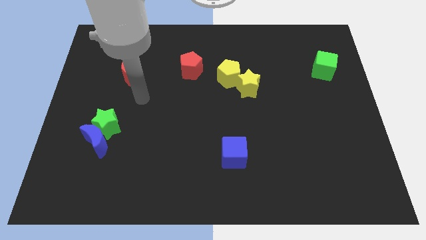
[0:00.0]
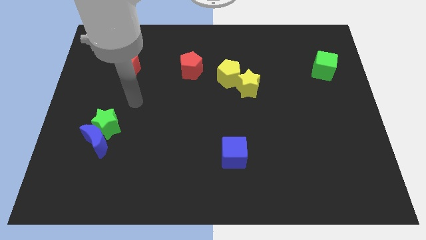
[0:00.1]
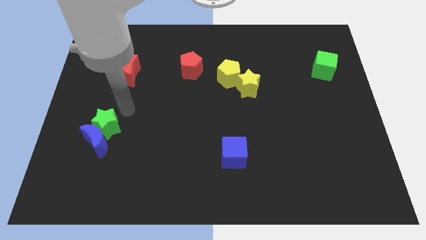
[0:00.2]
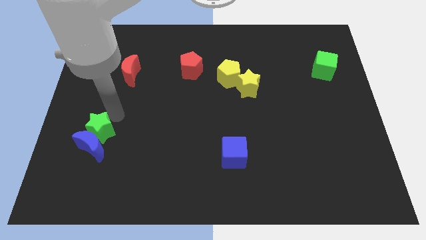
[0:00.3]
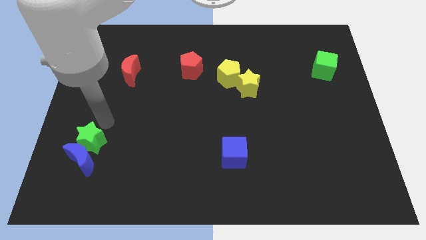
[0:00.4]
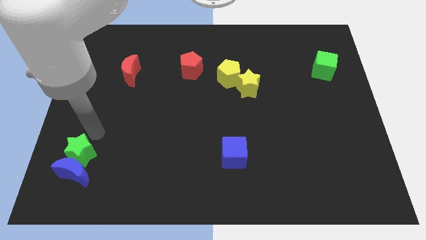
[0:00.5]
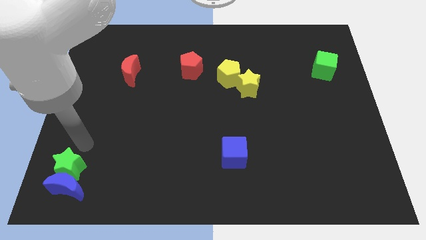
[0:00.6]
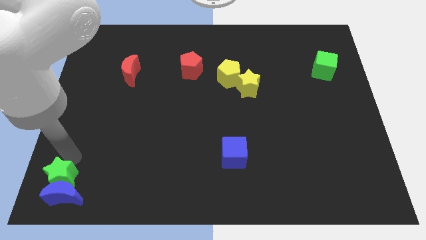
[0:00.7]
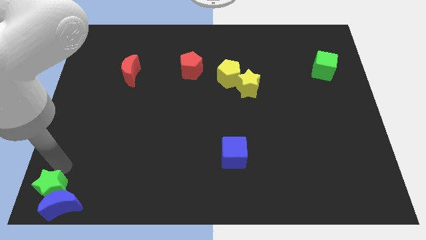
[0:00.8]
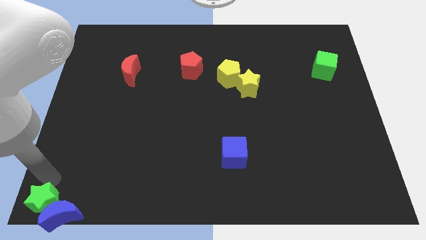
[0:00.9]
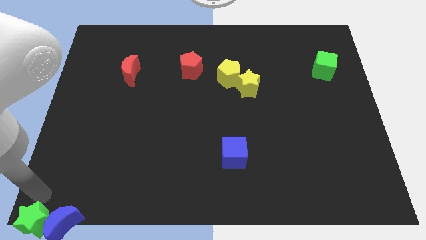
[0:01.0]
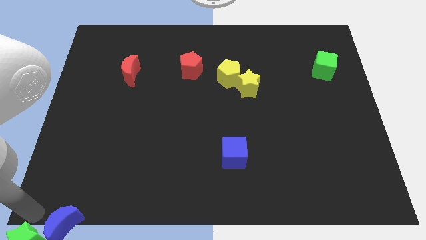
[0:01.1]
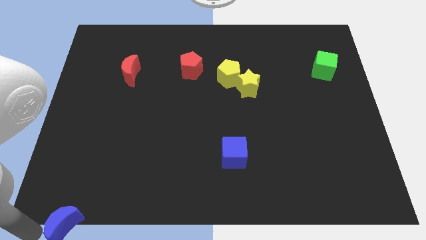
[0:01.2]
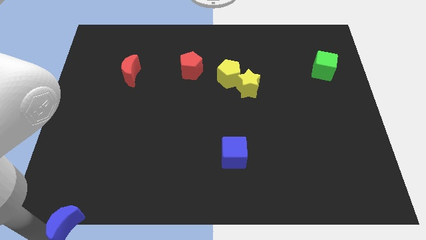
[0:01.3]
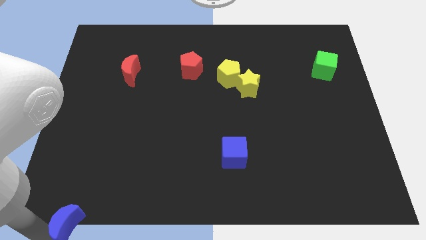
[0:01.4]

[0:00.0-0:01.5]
pull the blue moon apart from the green star

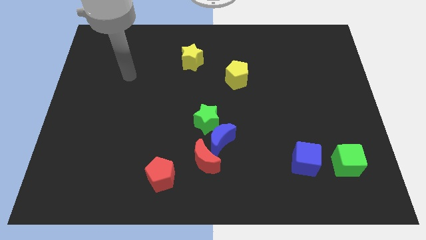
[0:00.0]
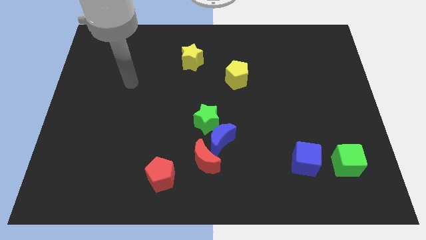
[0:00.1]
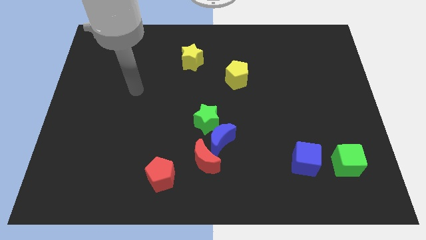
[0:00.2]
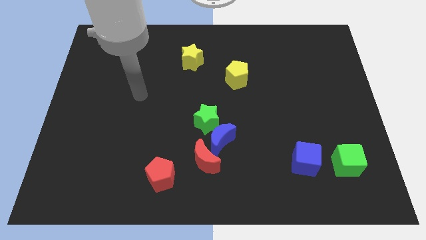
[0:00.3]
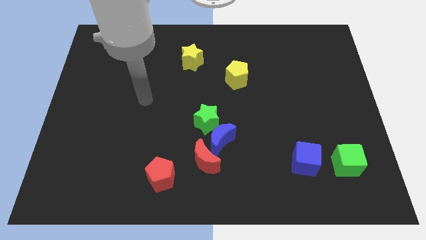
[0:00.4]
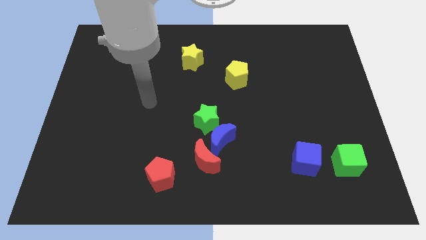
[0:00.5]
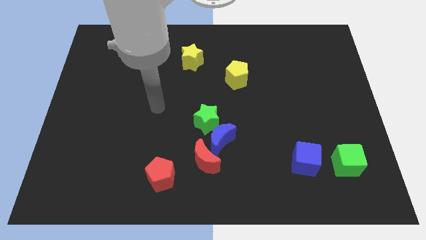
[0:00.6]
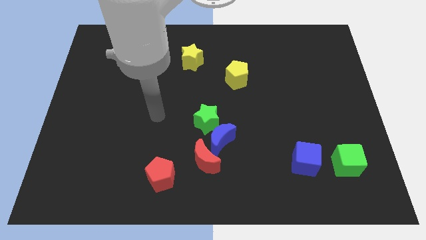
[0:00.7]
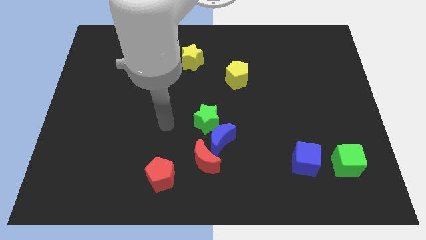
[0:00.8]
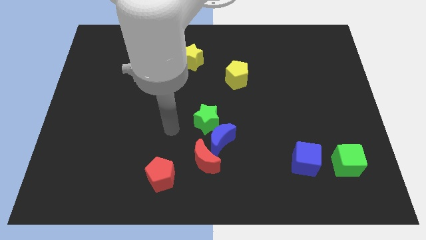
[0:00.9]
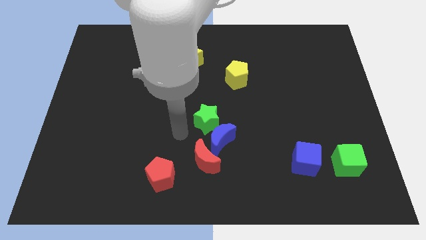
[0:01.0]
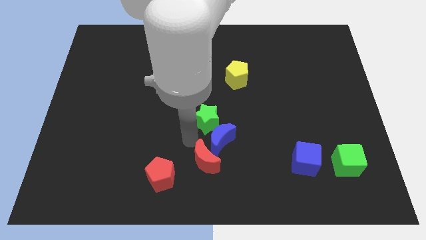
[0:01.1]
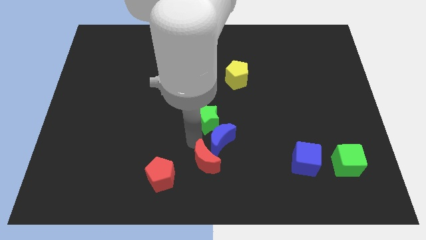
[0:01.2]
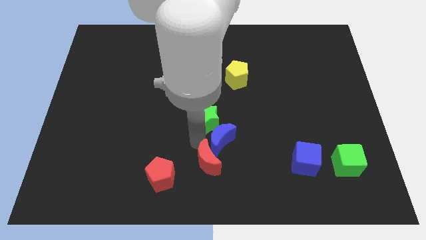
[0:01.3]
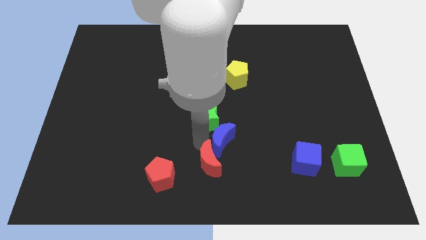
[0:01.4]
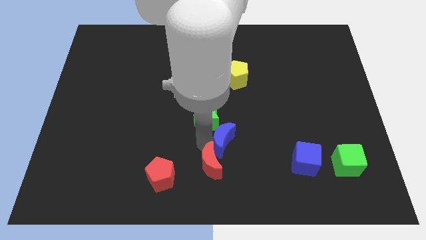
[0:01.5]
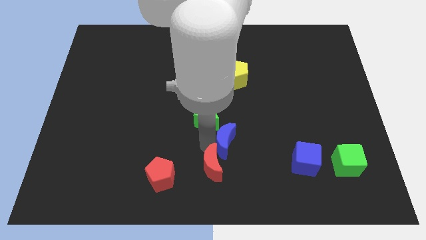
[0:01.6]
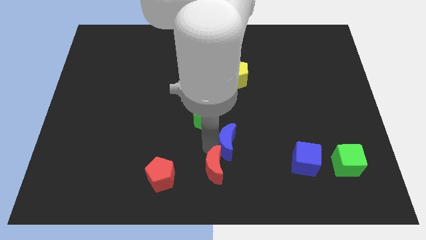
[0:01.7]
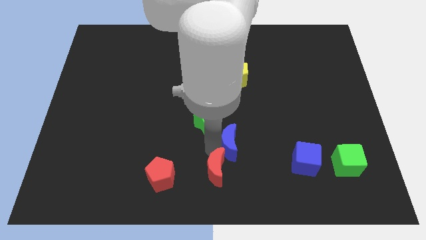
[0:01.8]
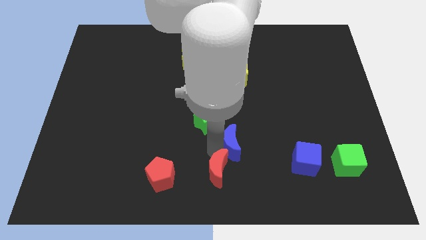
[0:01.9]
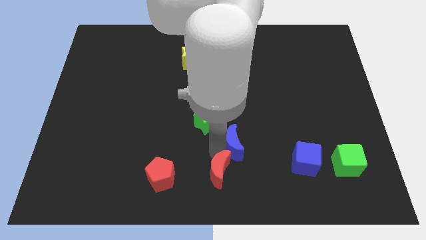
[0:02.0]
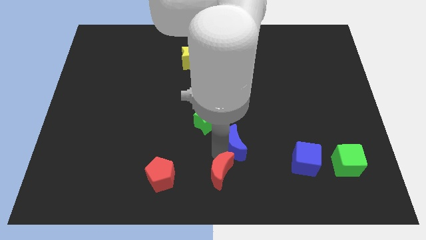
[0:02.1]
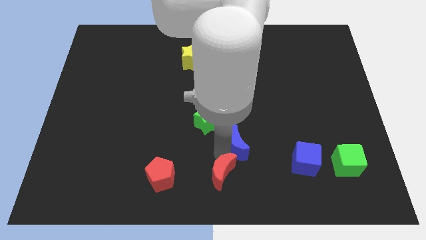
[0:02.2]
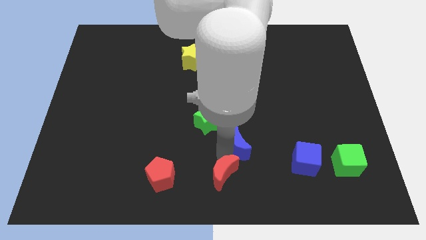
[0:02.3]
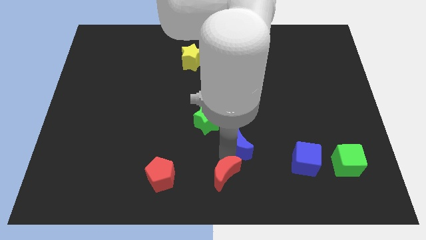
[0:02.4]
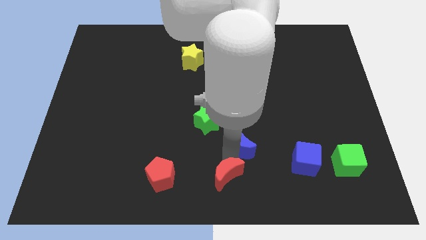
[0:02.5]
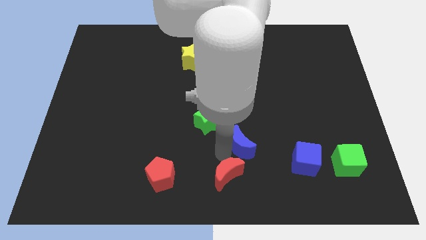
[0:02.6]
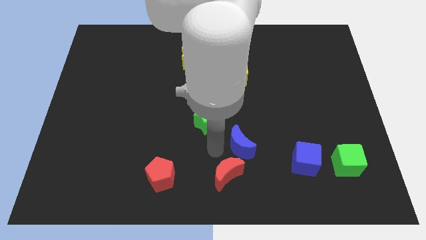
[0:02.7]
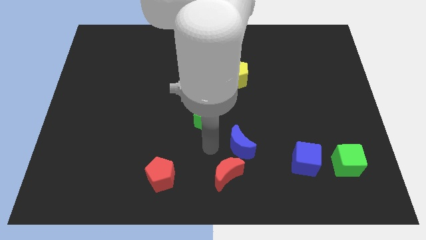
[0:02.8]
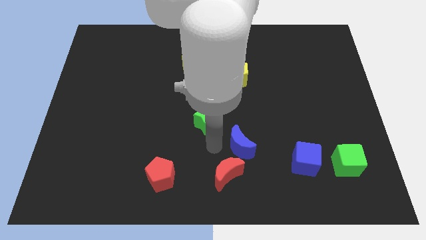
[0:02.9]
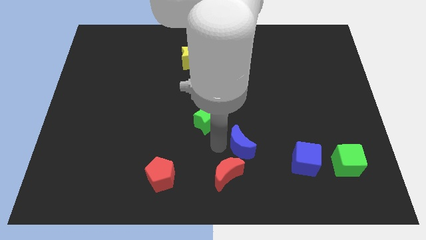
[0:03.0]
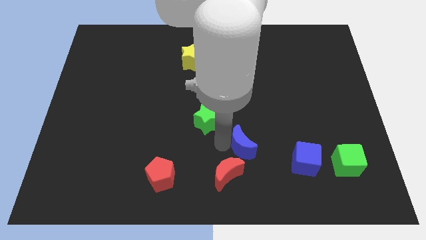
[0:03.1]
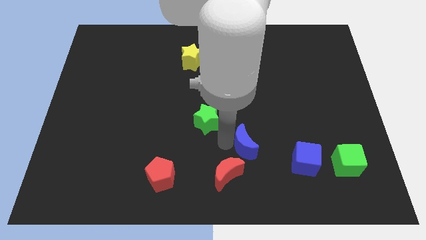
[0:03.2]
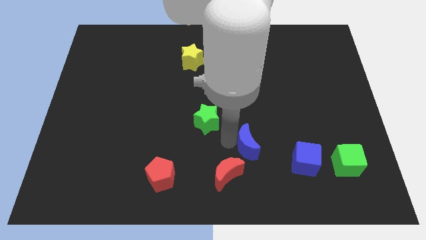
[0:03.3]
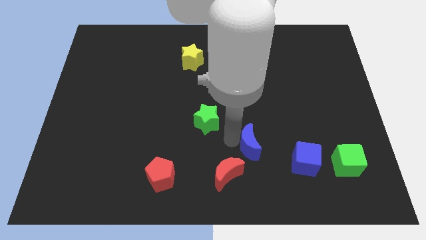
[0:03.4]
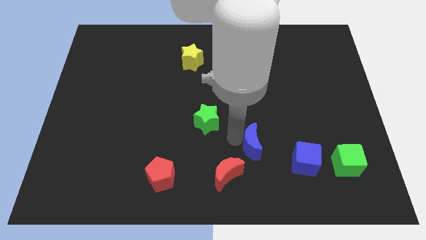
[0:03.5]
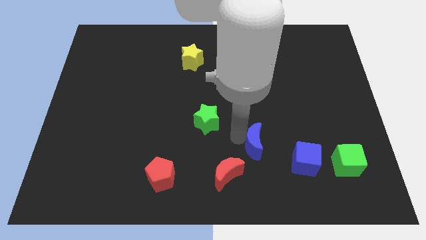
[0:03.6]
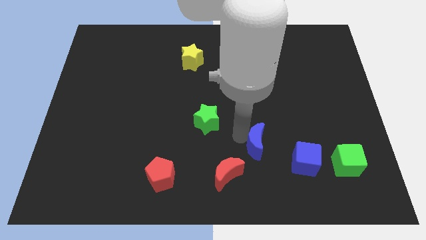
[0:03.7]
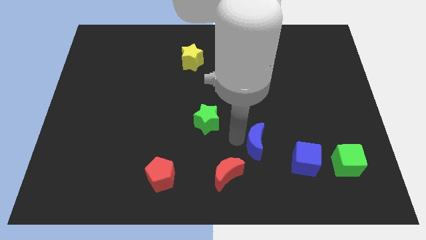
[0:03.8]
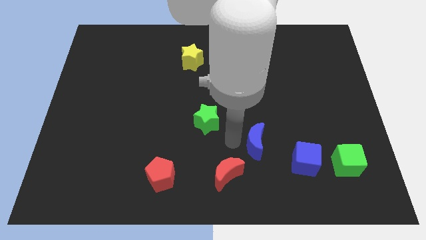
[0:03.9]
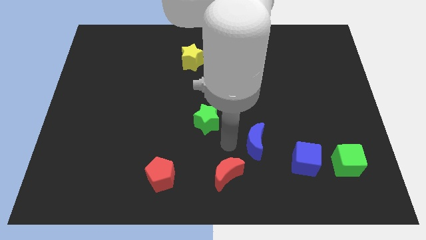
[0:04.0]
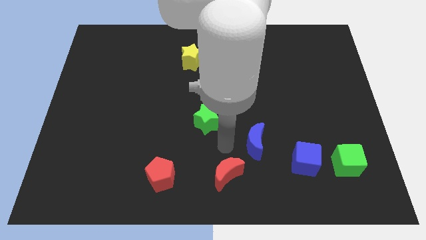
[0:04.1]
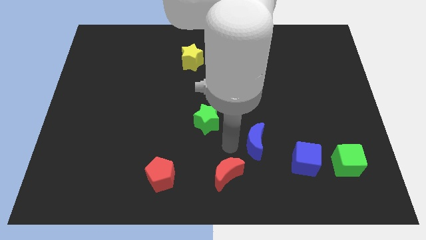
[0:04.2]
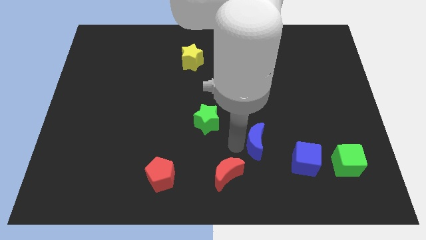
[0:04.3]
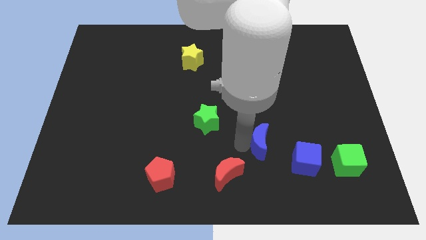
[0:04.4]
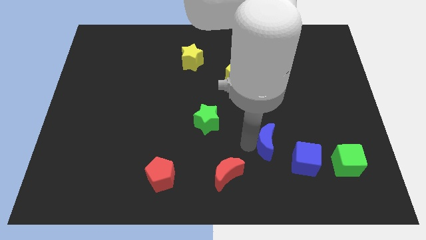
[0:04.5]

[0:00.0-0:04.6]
separate the blue moon from the green star and red moon

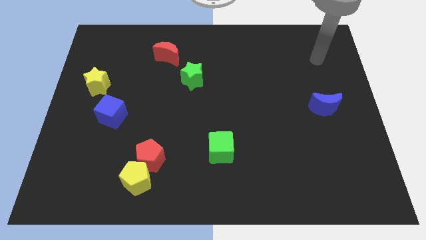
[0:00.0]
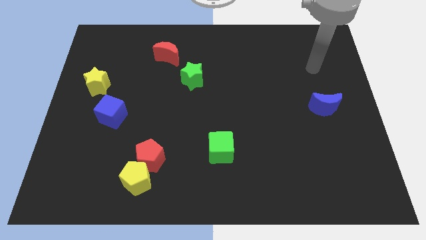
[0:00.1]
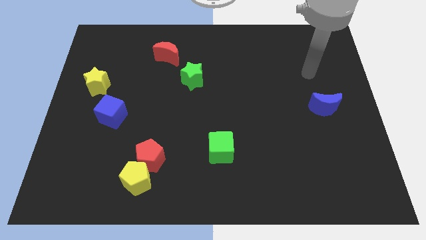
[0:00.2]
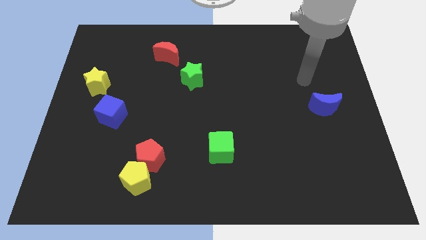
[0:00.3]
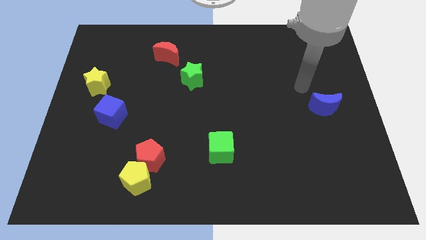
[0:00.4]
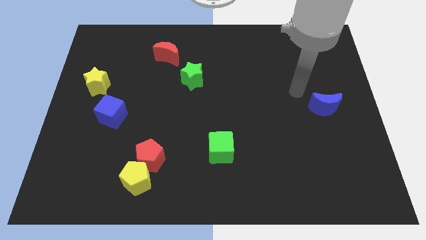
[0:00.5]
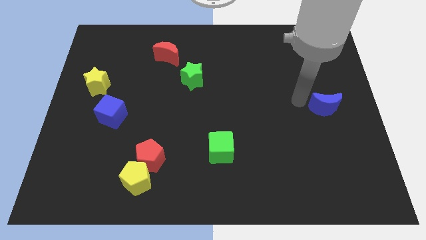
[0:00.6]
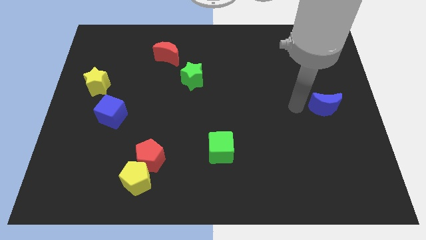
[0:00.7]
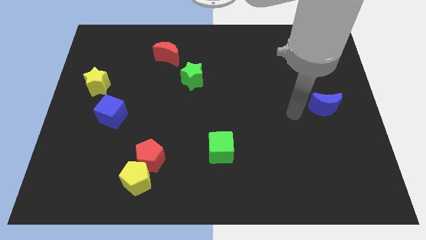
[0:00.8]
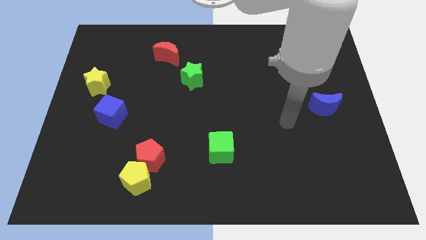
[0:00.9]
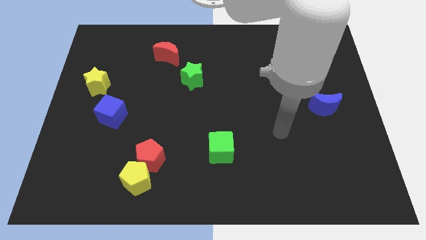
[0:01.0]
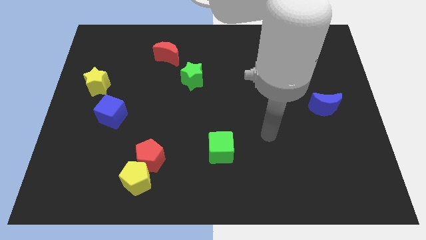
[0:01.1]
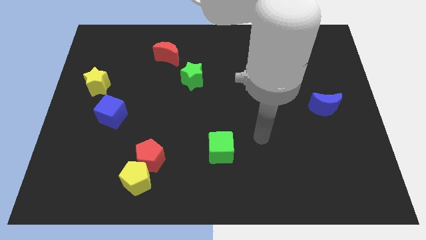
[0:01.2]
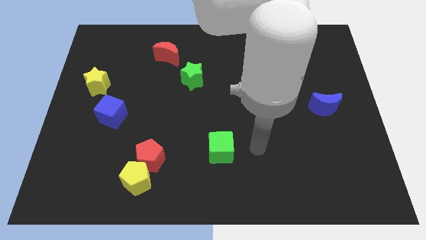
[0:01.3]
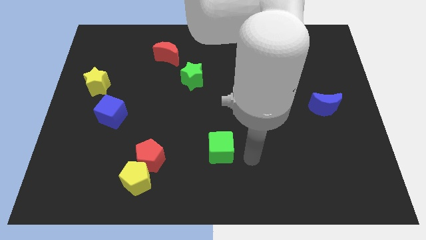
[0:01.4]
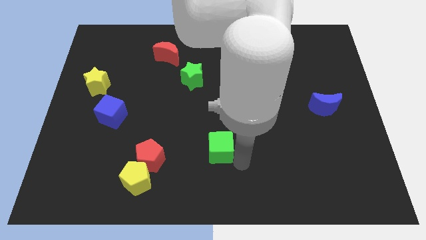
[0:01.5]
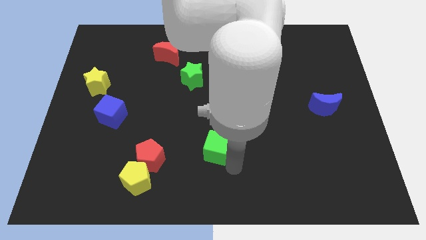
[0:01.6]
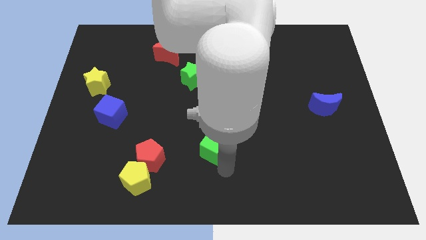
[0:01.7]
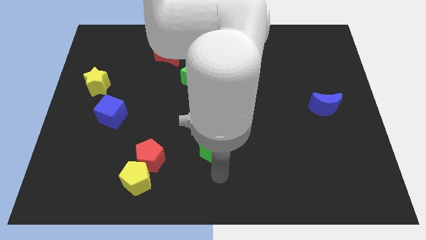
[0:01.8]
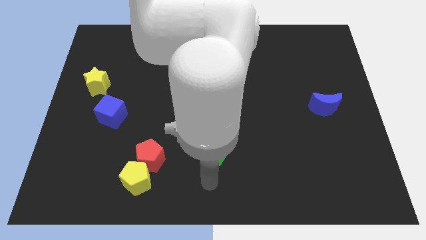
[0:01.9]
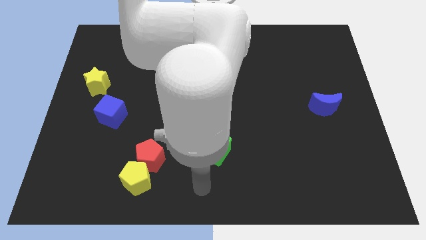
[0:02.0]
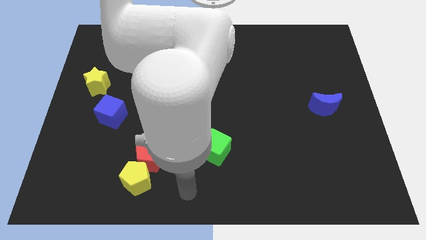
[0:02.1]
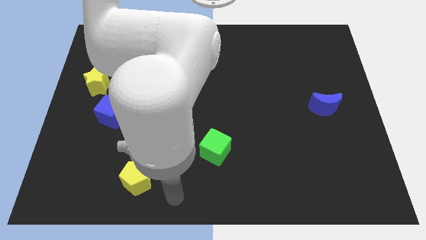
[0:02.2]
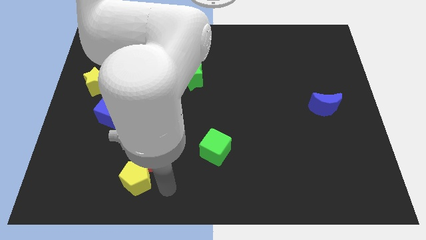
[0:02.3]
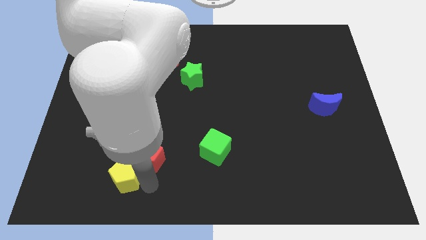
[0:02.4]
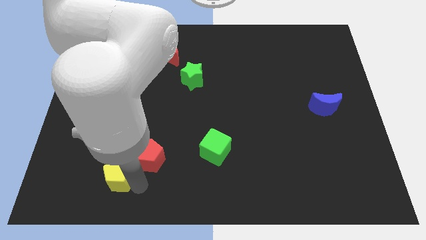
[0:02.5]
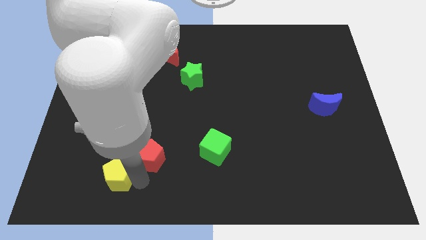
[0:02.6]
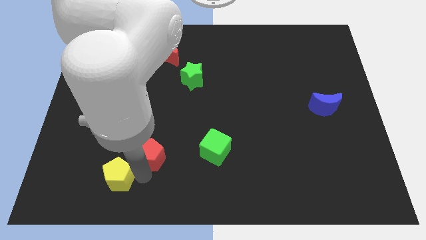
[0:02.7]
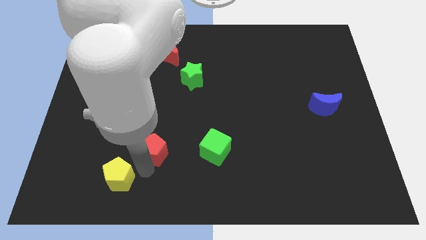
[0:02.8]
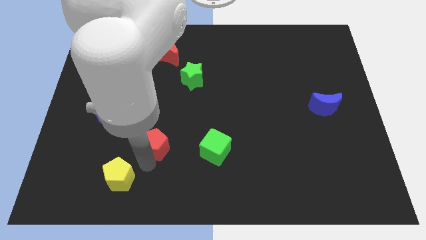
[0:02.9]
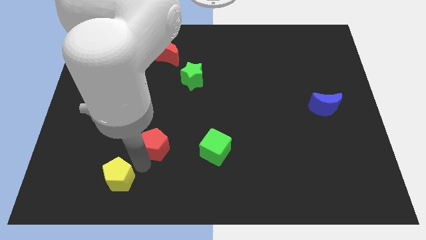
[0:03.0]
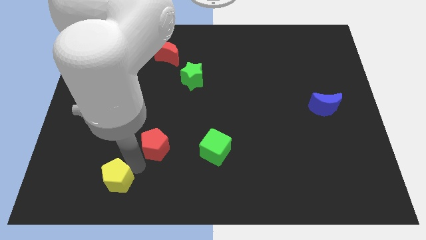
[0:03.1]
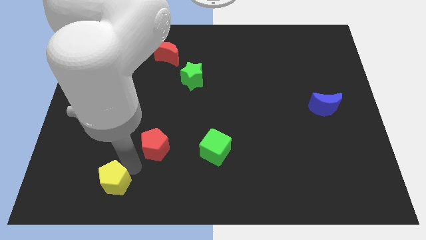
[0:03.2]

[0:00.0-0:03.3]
move the red pentagon away from the yellow pentagon

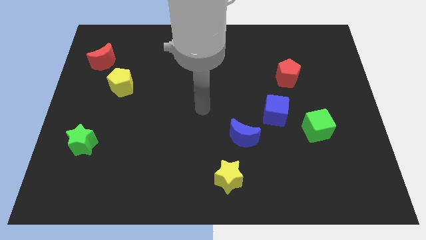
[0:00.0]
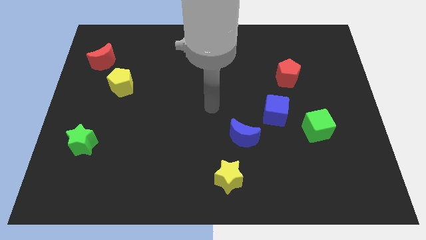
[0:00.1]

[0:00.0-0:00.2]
pull the green cube apart from the blue cube
